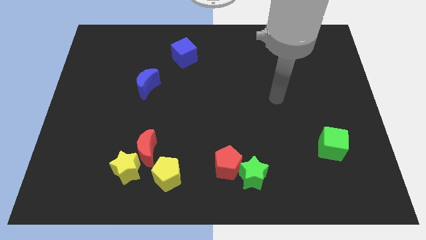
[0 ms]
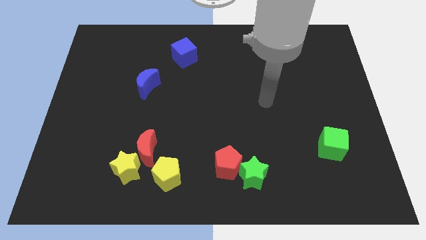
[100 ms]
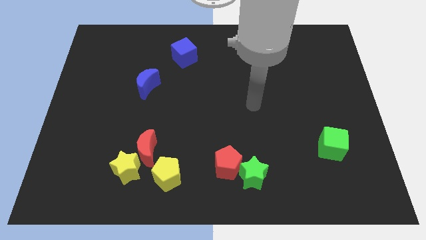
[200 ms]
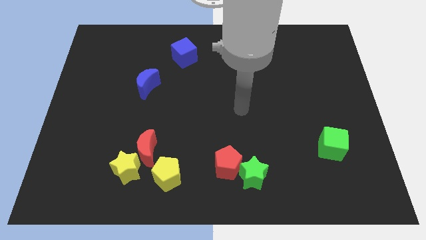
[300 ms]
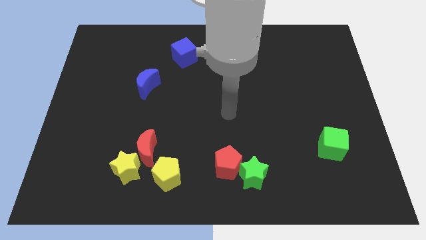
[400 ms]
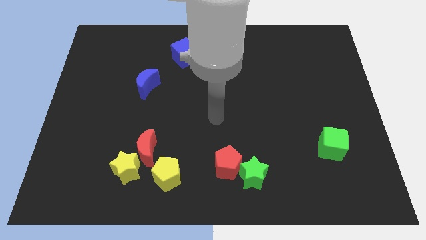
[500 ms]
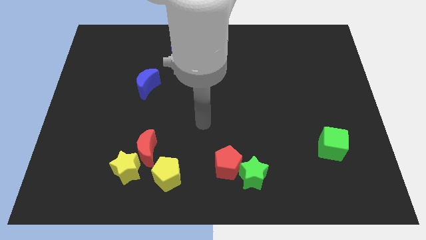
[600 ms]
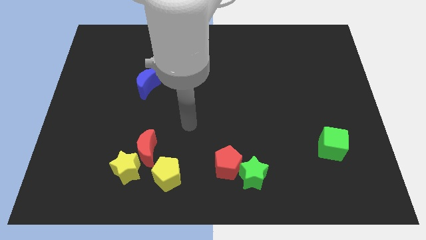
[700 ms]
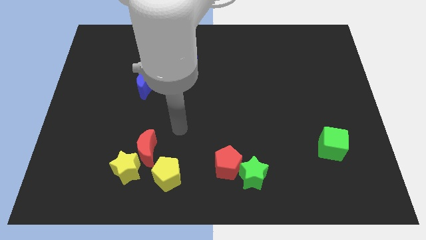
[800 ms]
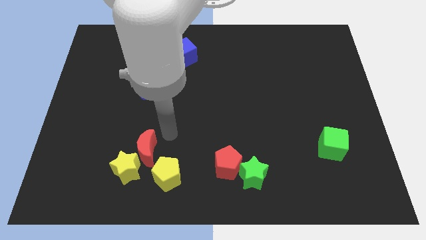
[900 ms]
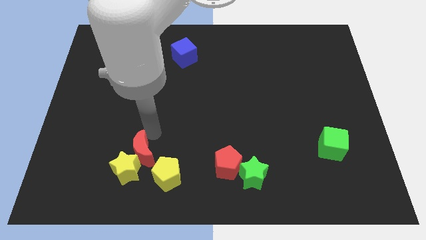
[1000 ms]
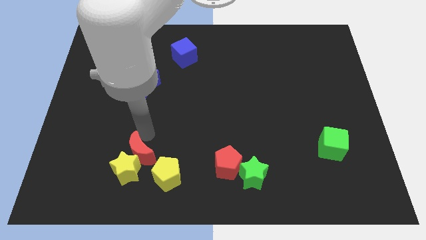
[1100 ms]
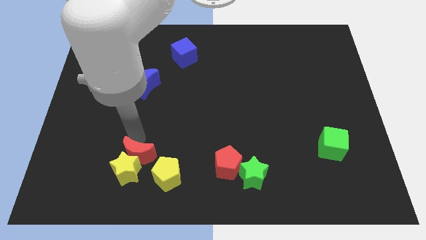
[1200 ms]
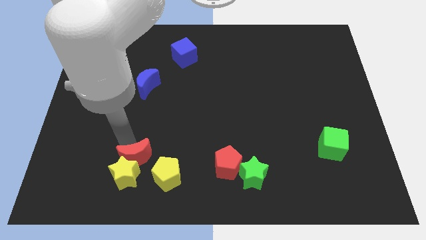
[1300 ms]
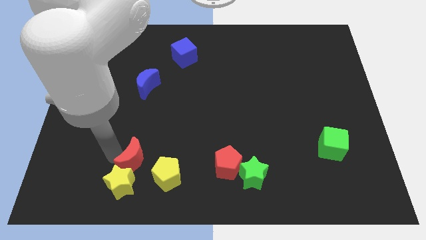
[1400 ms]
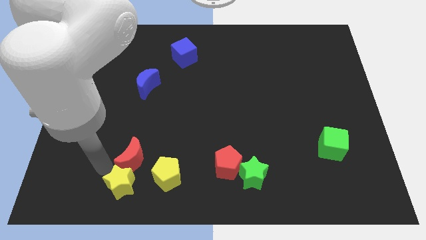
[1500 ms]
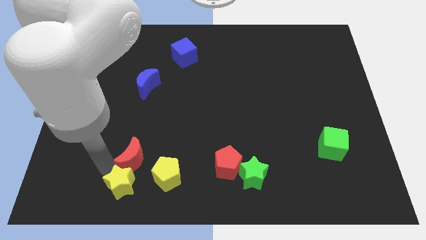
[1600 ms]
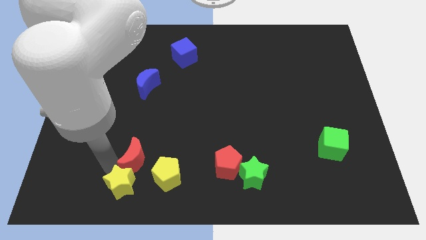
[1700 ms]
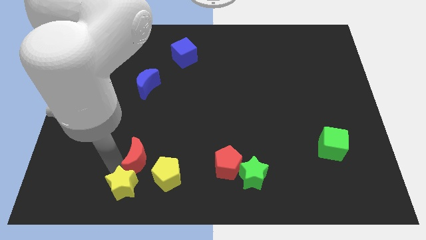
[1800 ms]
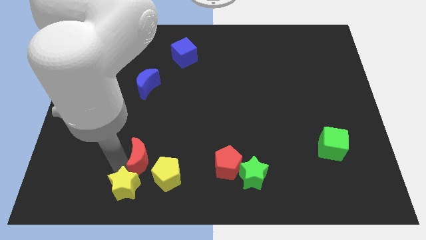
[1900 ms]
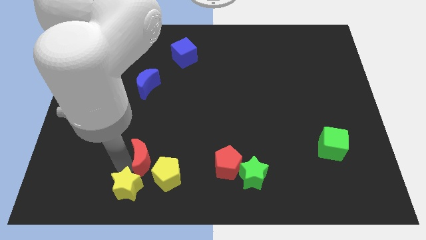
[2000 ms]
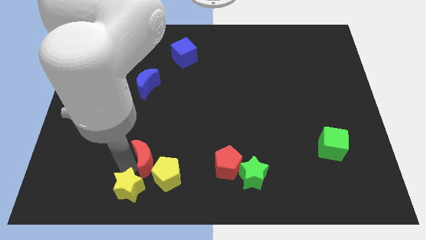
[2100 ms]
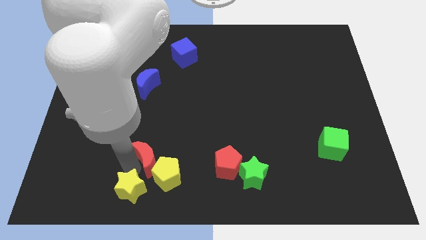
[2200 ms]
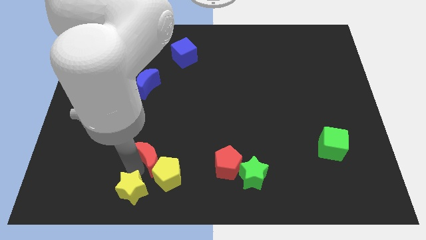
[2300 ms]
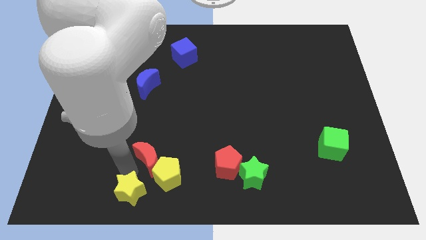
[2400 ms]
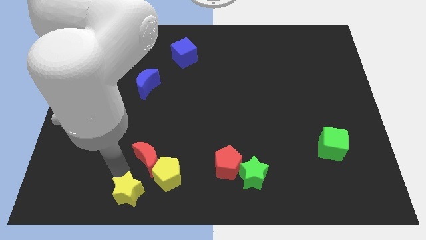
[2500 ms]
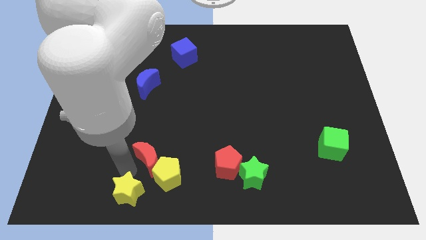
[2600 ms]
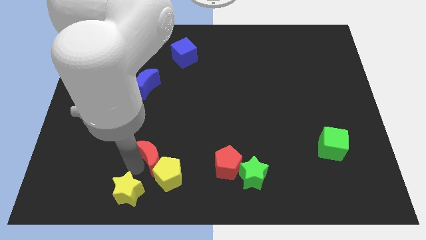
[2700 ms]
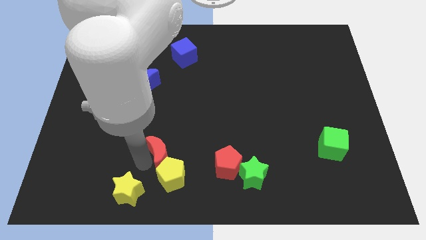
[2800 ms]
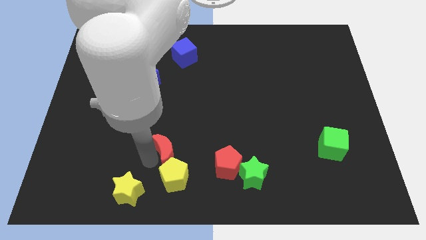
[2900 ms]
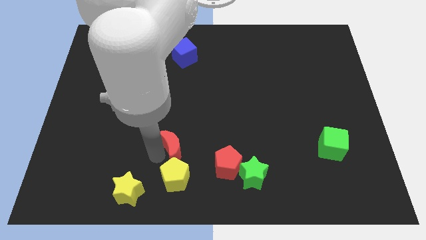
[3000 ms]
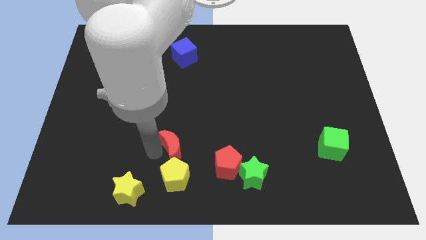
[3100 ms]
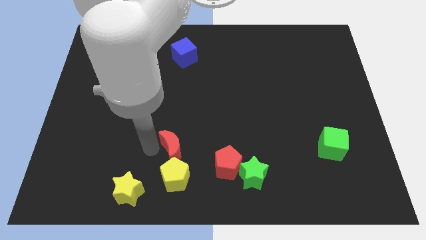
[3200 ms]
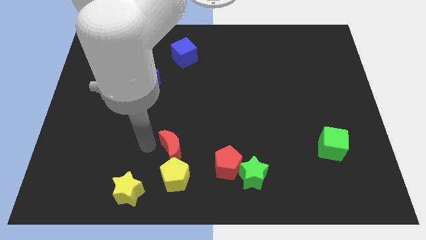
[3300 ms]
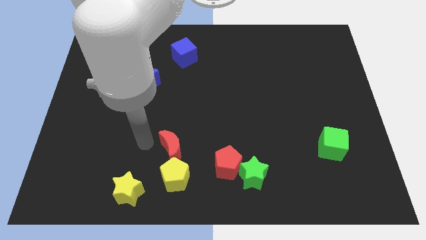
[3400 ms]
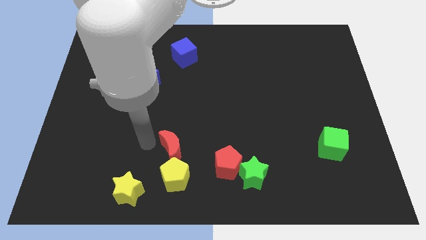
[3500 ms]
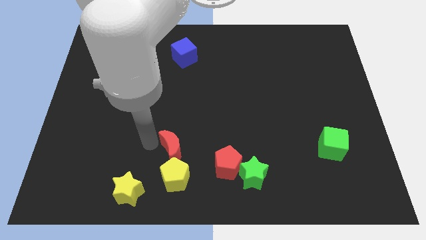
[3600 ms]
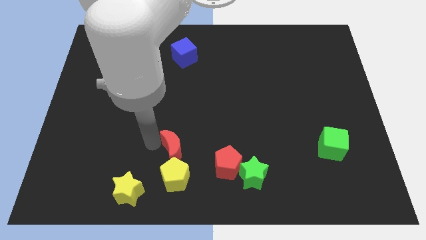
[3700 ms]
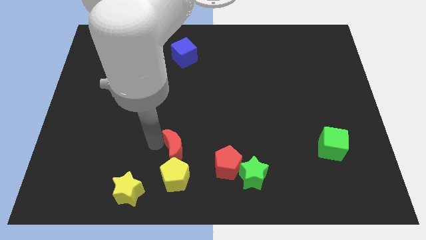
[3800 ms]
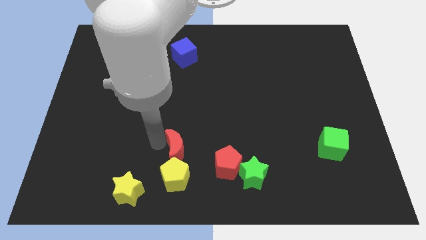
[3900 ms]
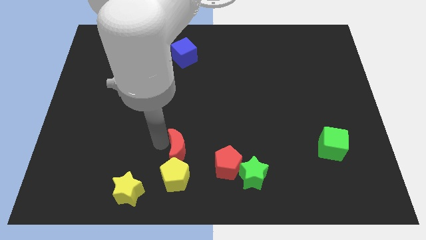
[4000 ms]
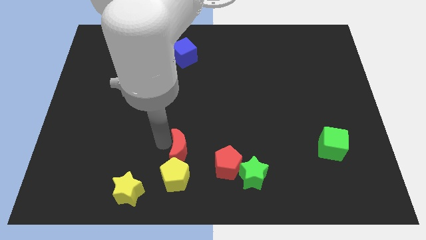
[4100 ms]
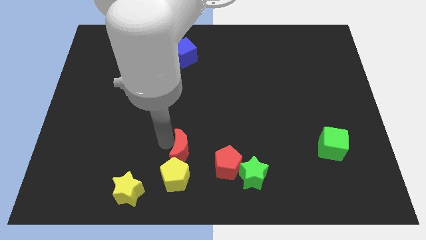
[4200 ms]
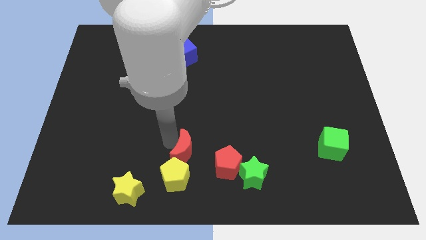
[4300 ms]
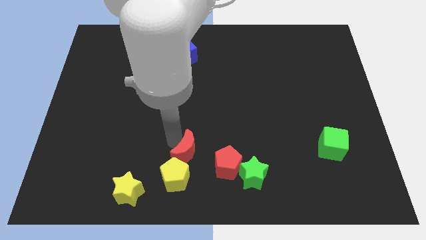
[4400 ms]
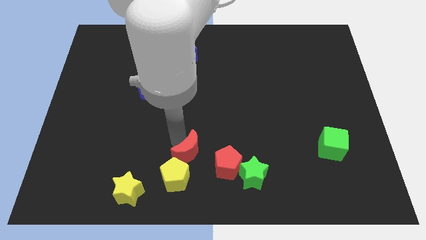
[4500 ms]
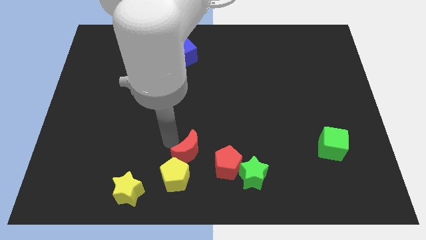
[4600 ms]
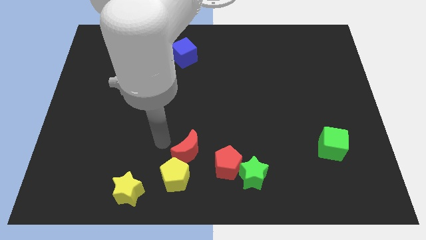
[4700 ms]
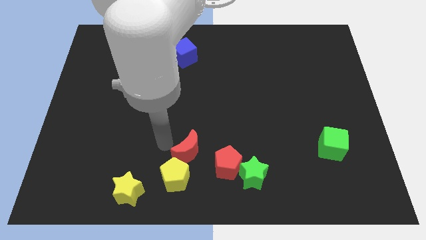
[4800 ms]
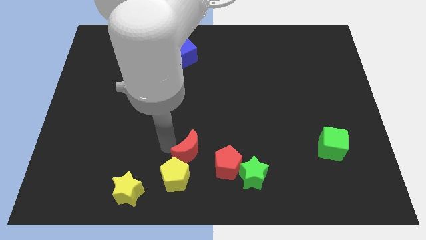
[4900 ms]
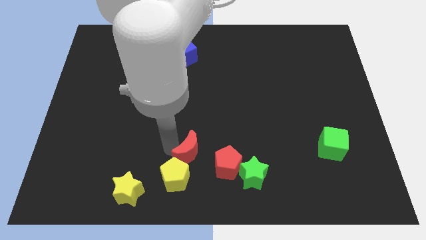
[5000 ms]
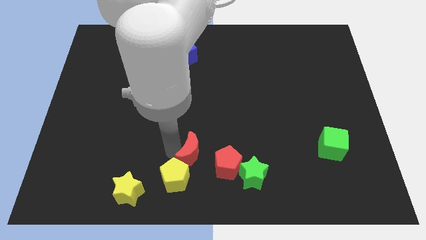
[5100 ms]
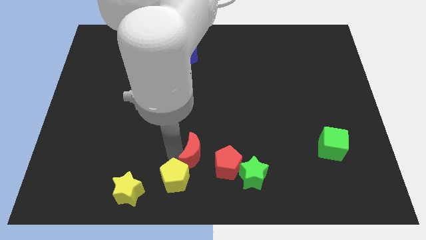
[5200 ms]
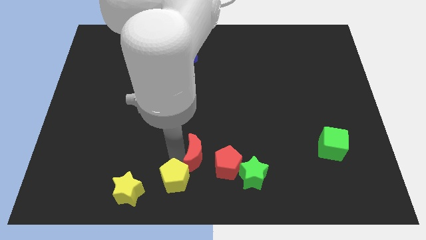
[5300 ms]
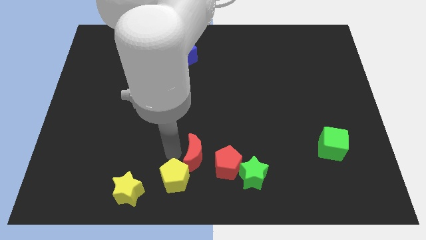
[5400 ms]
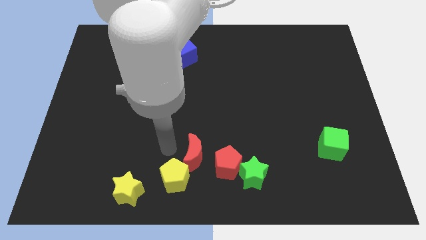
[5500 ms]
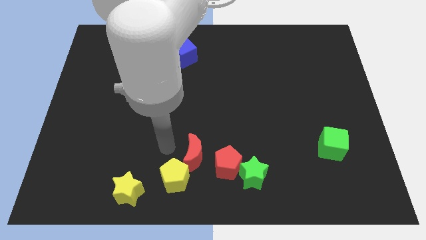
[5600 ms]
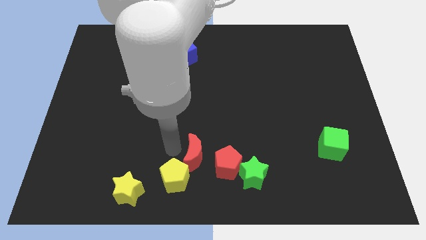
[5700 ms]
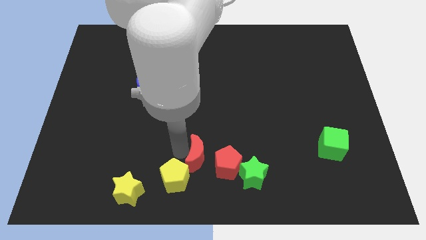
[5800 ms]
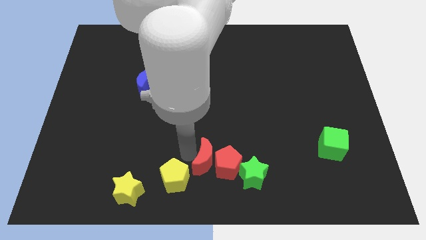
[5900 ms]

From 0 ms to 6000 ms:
move the red moon to the red pentagon

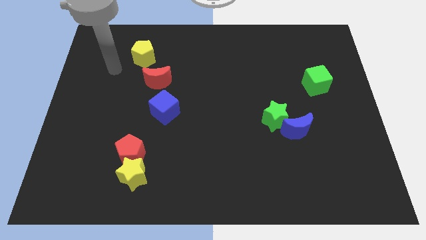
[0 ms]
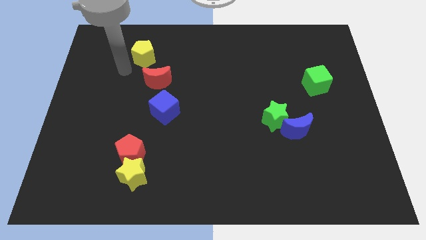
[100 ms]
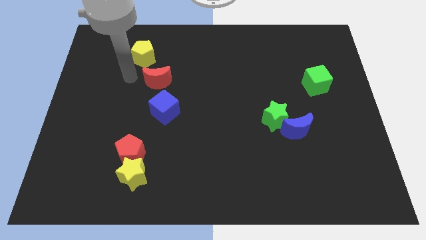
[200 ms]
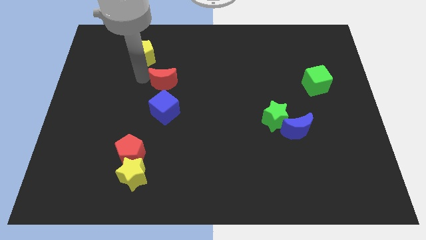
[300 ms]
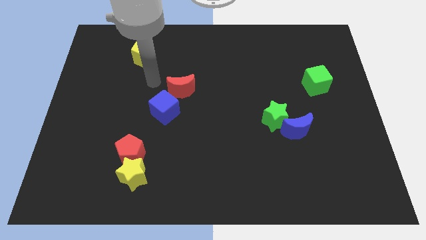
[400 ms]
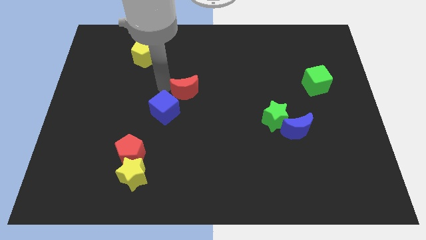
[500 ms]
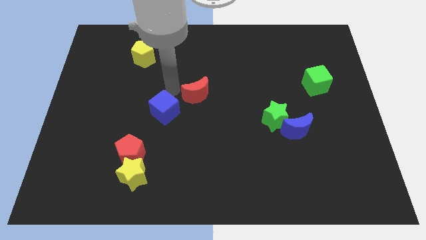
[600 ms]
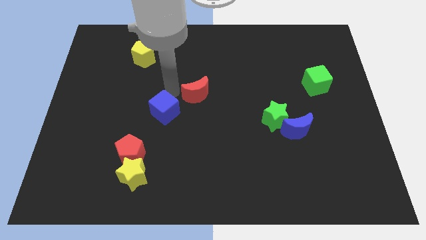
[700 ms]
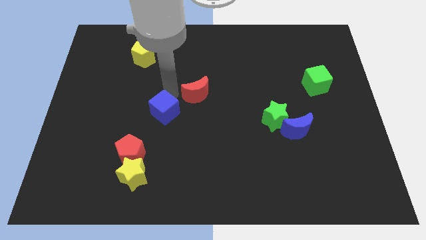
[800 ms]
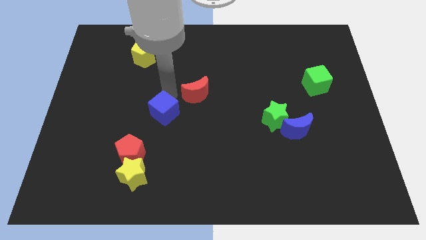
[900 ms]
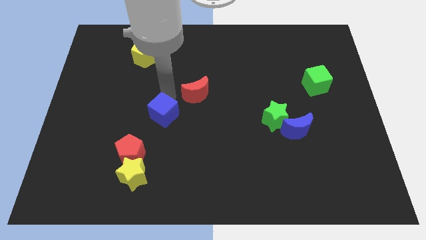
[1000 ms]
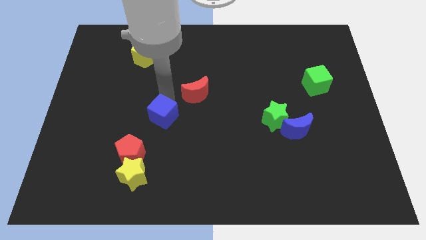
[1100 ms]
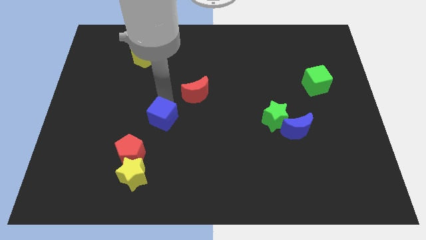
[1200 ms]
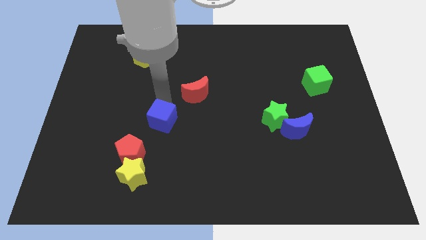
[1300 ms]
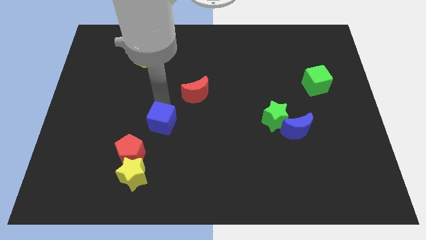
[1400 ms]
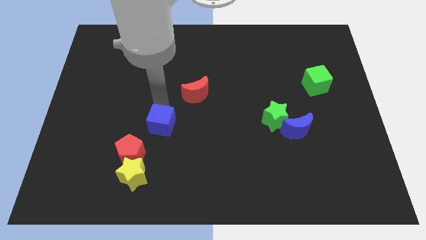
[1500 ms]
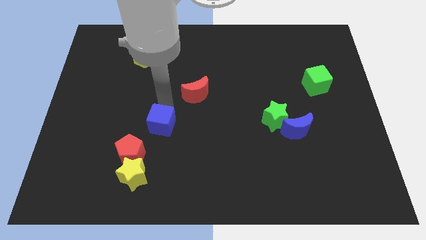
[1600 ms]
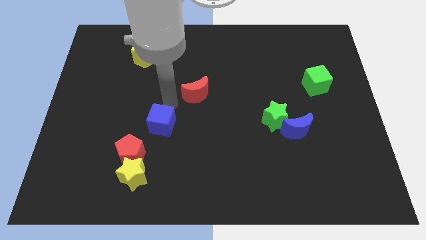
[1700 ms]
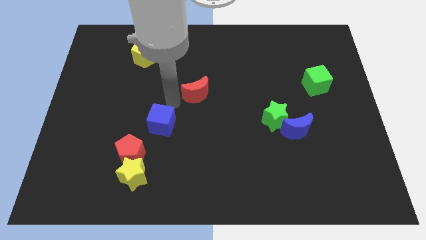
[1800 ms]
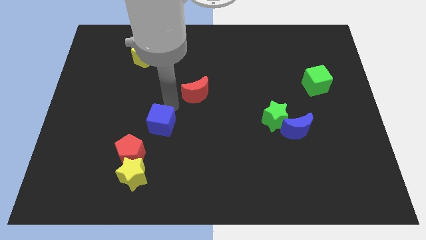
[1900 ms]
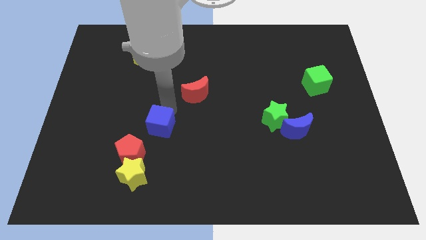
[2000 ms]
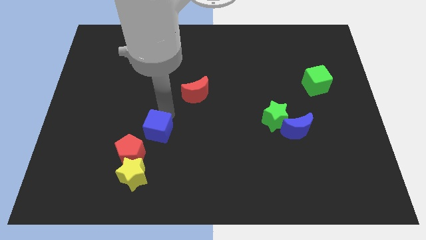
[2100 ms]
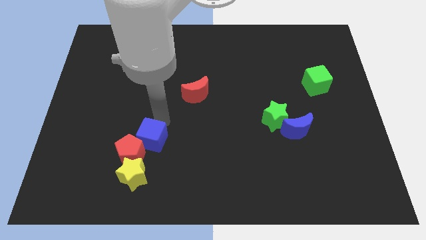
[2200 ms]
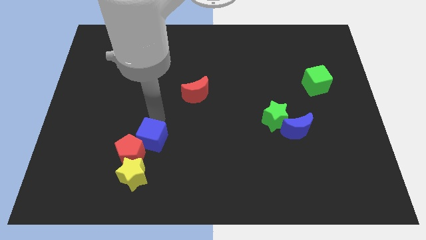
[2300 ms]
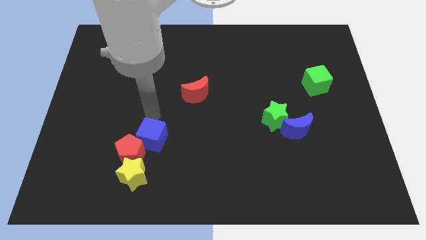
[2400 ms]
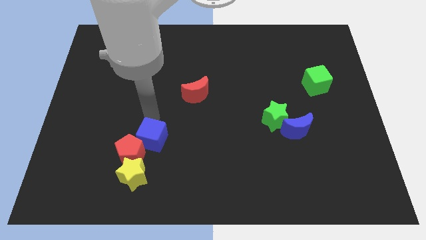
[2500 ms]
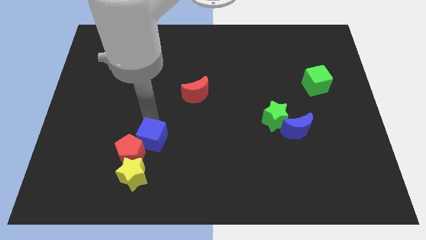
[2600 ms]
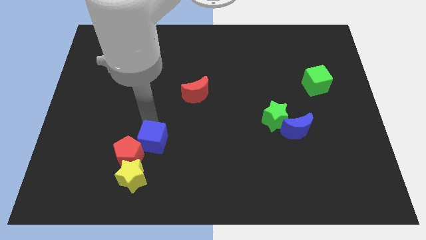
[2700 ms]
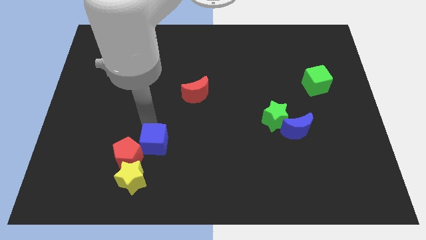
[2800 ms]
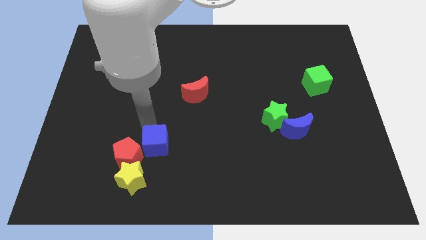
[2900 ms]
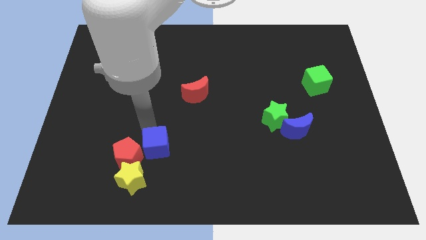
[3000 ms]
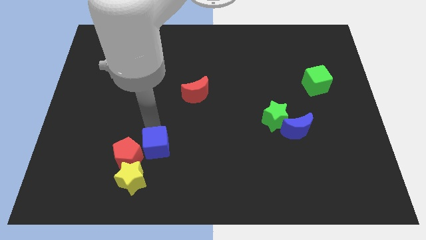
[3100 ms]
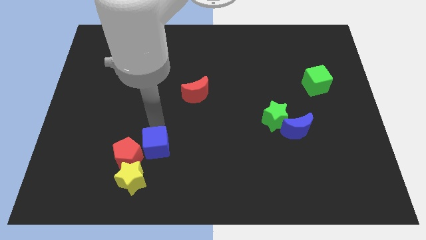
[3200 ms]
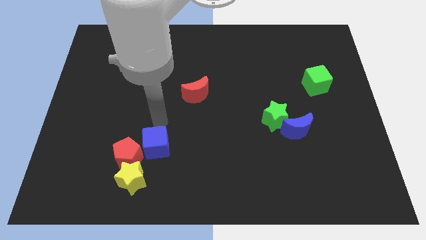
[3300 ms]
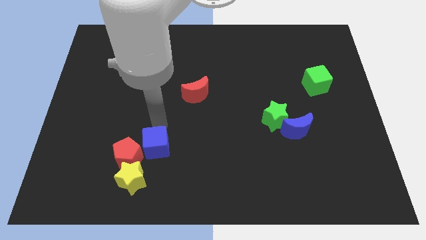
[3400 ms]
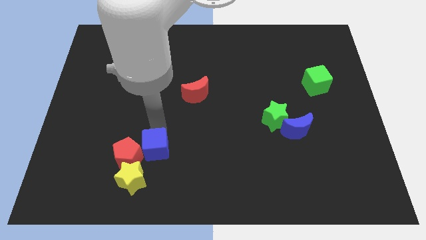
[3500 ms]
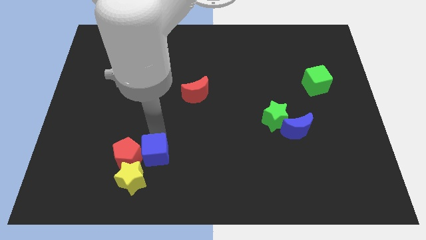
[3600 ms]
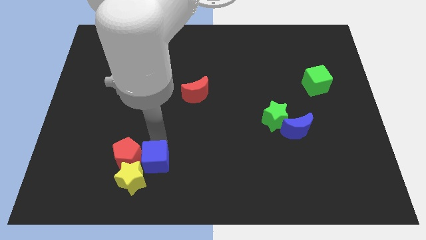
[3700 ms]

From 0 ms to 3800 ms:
put the blue cube to the yellow star
